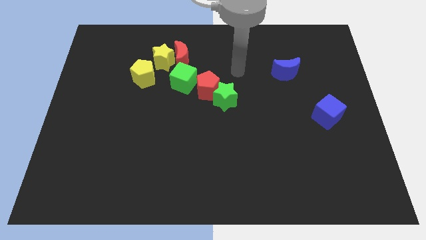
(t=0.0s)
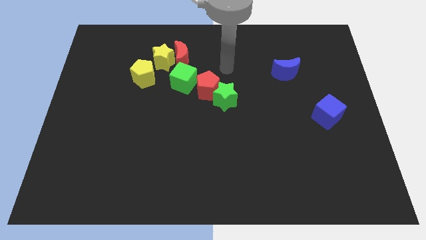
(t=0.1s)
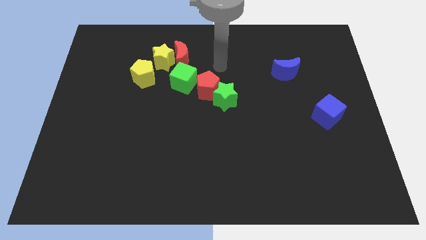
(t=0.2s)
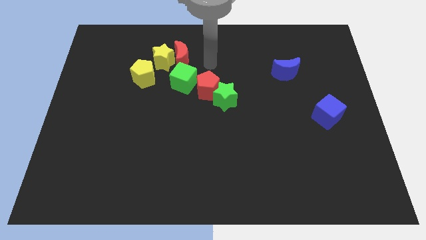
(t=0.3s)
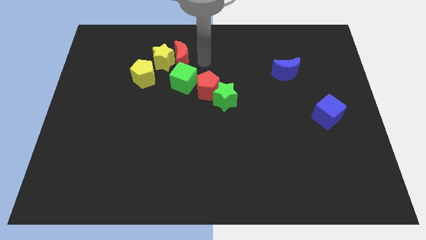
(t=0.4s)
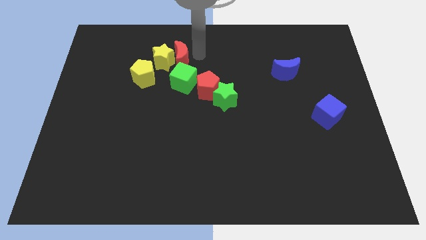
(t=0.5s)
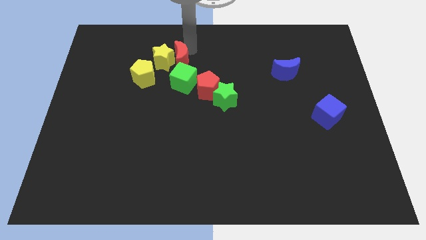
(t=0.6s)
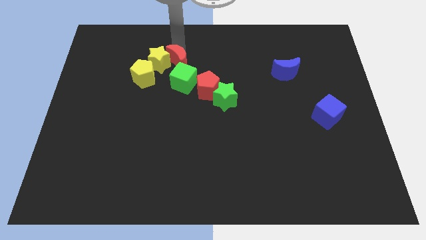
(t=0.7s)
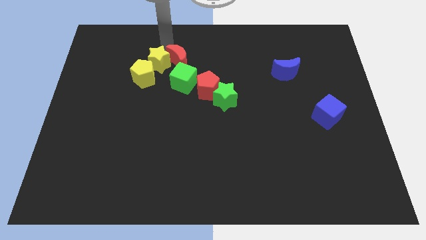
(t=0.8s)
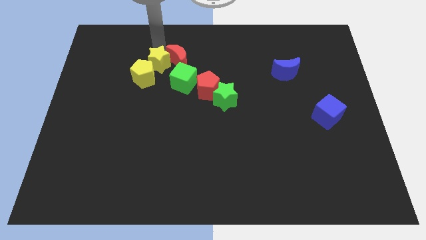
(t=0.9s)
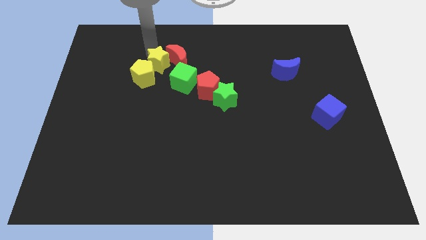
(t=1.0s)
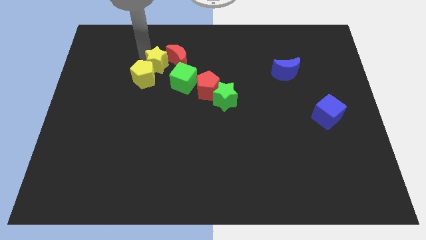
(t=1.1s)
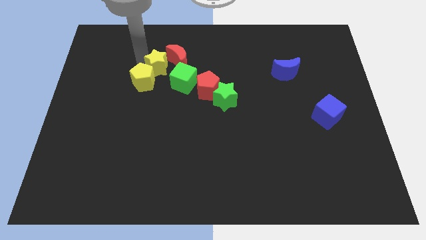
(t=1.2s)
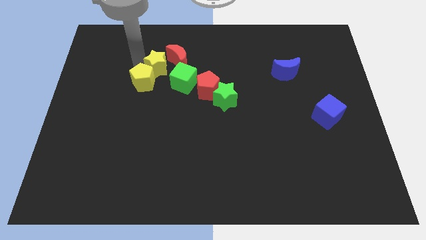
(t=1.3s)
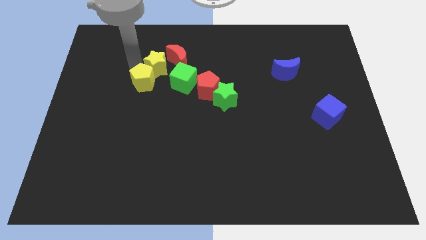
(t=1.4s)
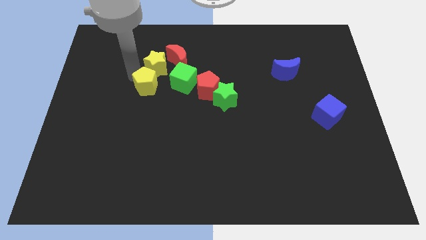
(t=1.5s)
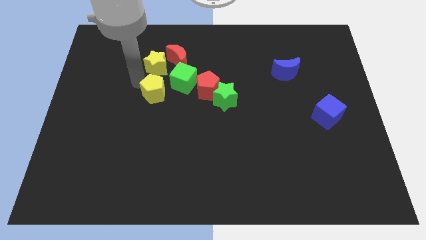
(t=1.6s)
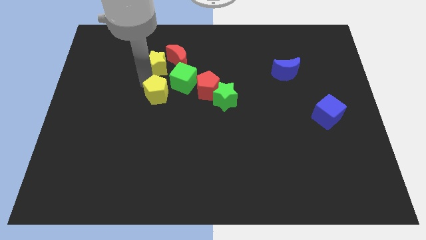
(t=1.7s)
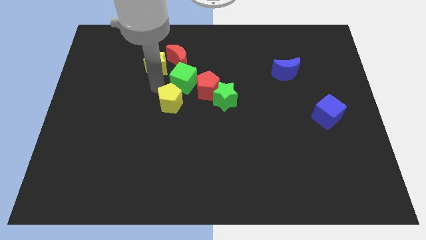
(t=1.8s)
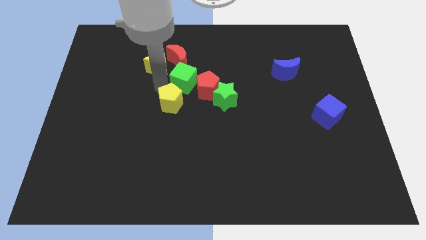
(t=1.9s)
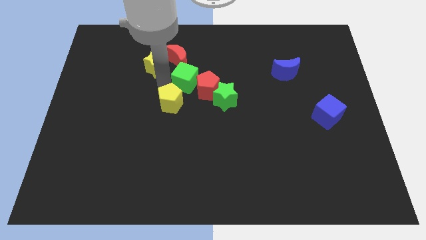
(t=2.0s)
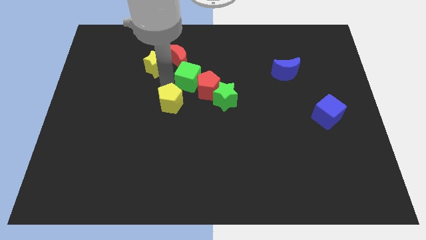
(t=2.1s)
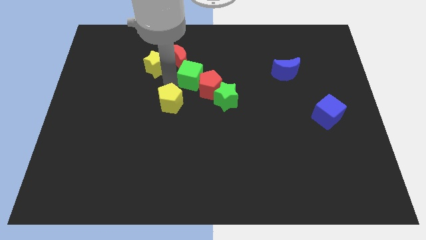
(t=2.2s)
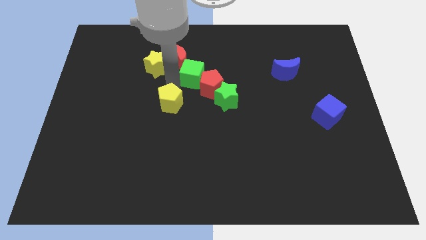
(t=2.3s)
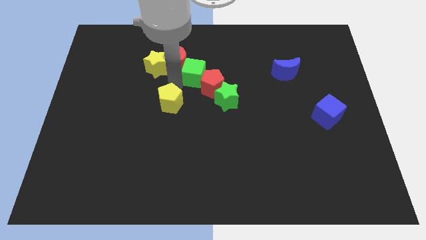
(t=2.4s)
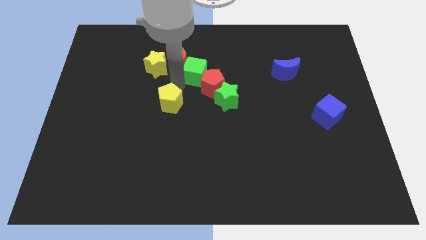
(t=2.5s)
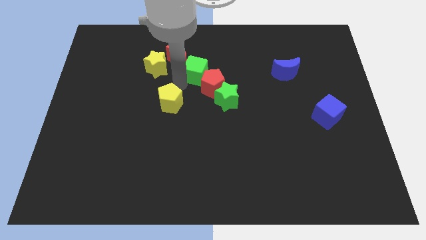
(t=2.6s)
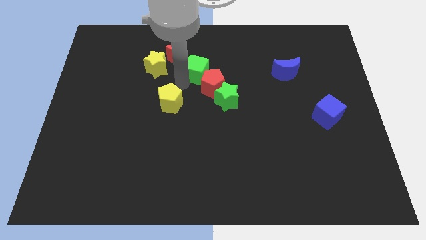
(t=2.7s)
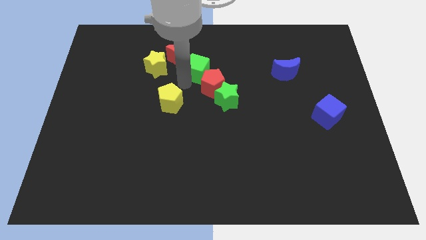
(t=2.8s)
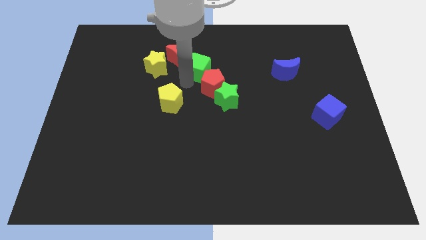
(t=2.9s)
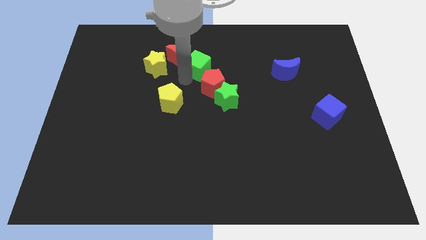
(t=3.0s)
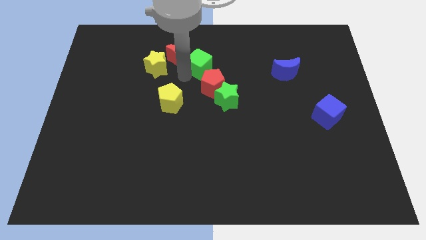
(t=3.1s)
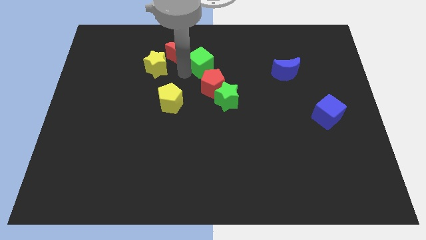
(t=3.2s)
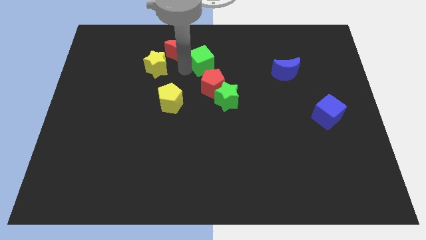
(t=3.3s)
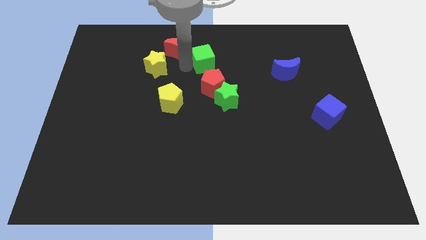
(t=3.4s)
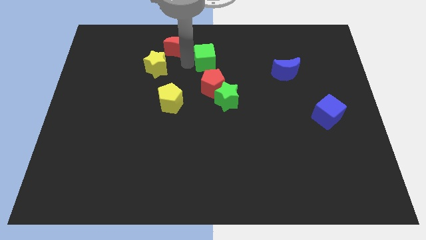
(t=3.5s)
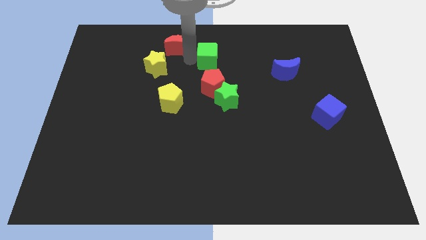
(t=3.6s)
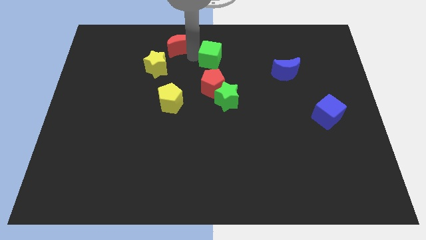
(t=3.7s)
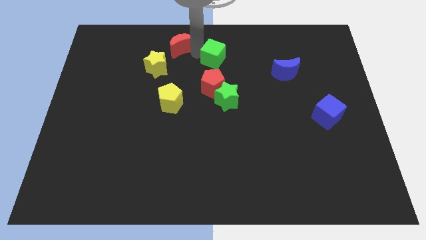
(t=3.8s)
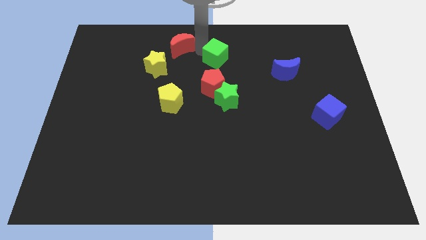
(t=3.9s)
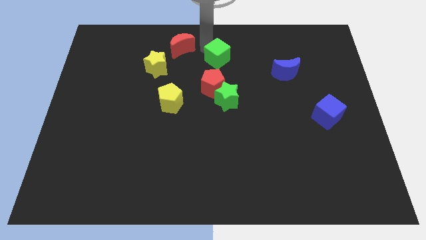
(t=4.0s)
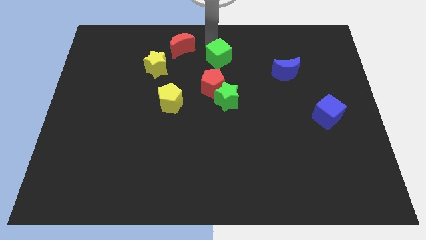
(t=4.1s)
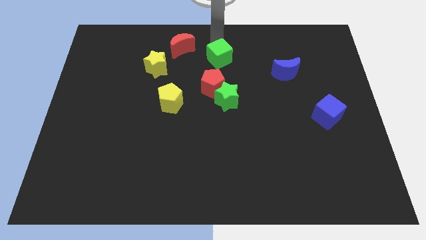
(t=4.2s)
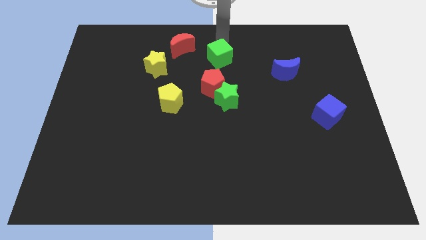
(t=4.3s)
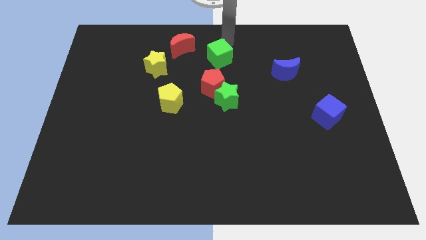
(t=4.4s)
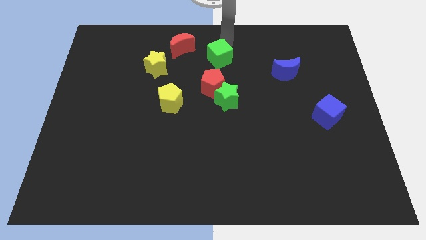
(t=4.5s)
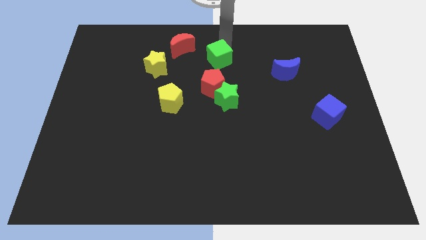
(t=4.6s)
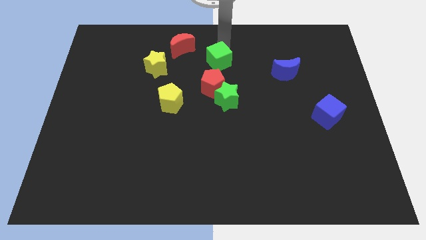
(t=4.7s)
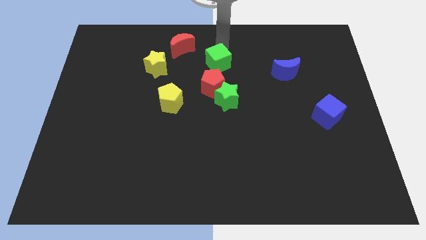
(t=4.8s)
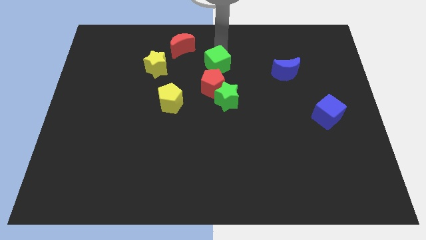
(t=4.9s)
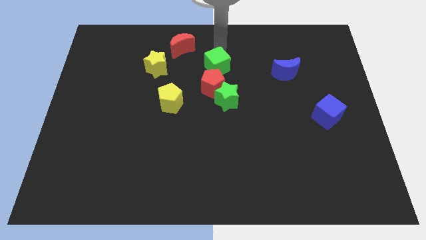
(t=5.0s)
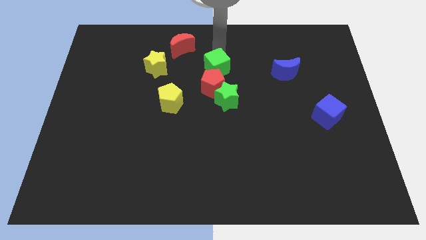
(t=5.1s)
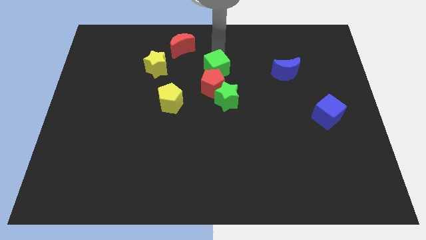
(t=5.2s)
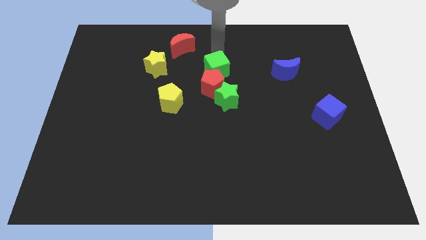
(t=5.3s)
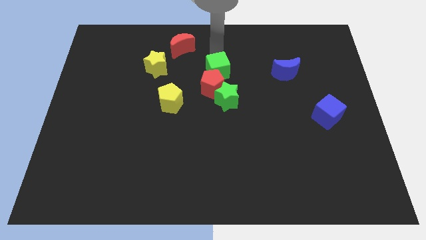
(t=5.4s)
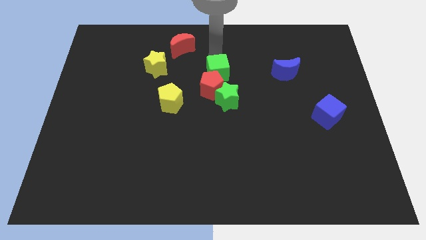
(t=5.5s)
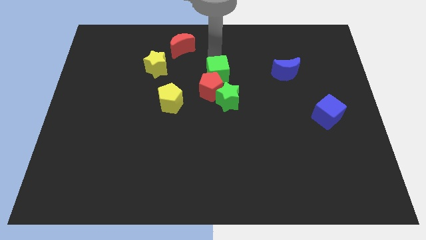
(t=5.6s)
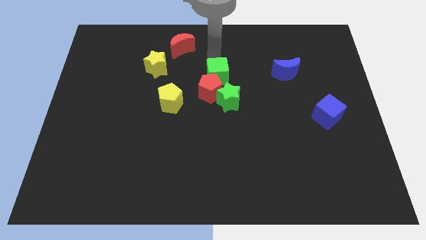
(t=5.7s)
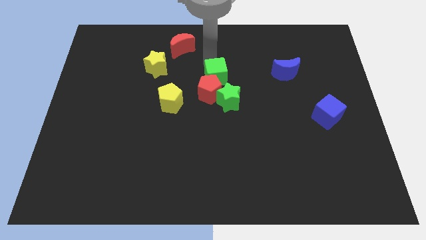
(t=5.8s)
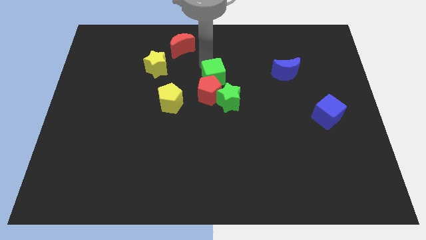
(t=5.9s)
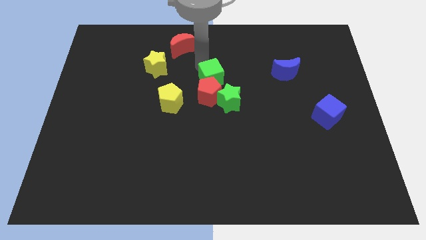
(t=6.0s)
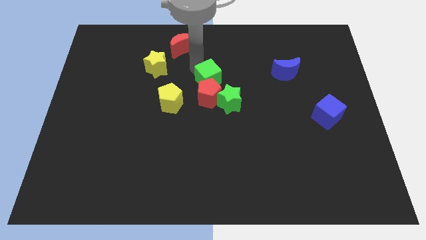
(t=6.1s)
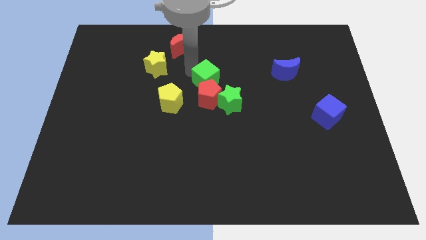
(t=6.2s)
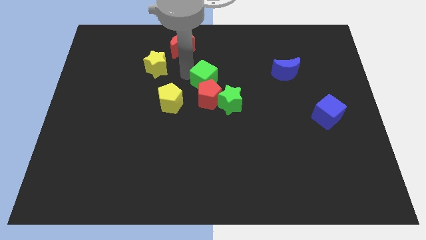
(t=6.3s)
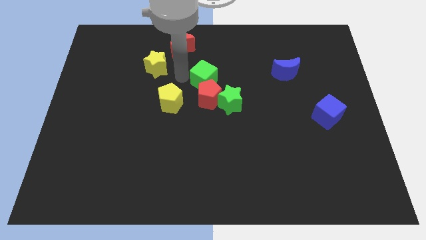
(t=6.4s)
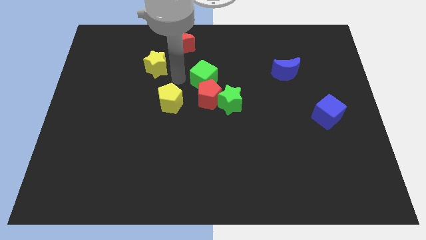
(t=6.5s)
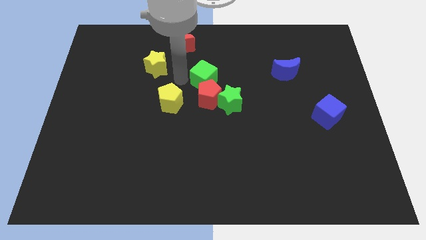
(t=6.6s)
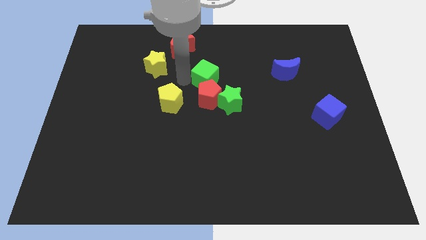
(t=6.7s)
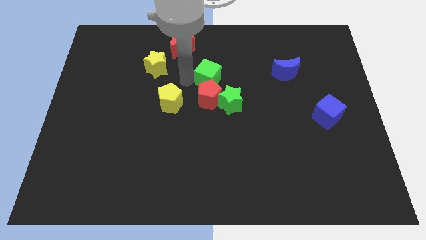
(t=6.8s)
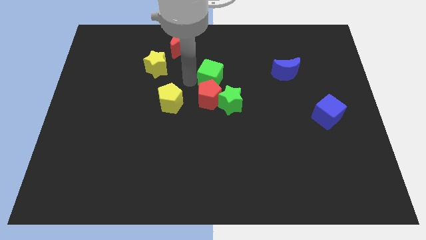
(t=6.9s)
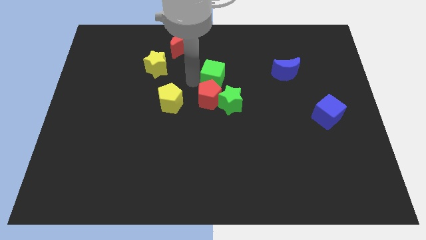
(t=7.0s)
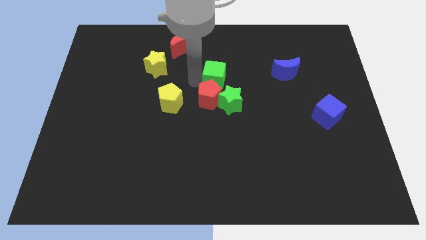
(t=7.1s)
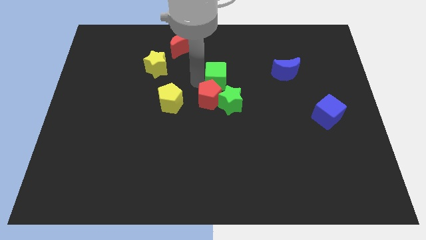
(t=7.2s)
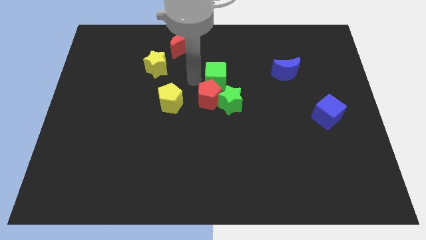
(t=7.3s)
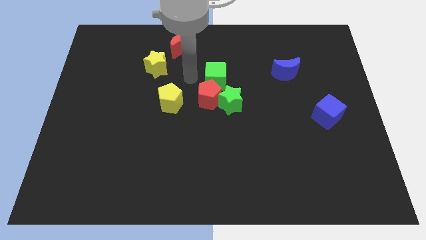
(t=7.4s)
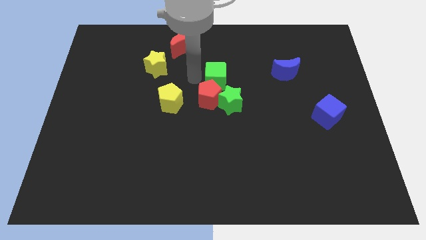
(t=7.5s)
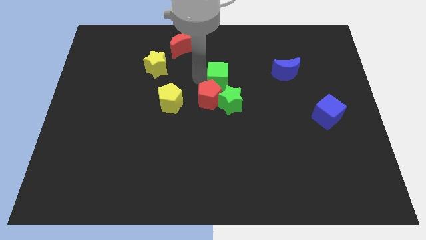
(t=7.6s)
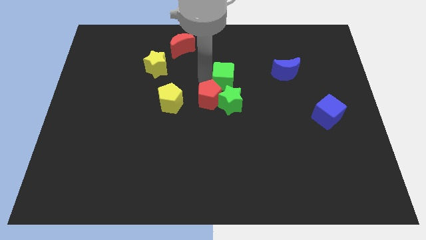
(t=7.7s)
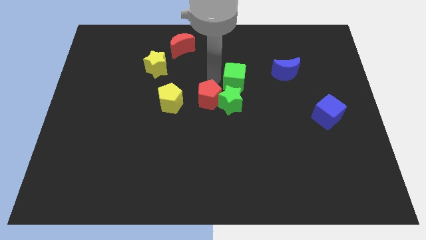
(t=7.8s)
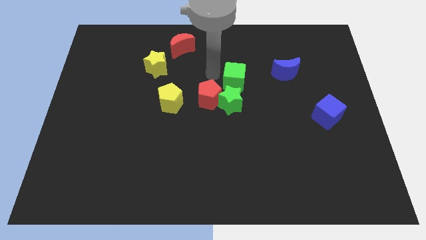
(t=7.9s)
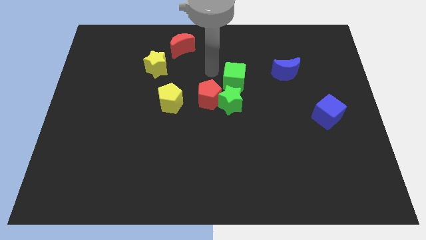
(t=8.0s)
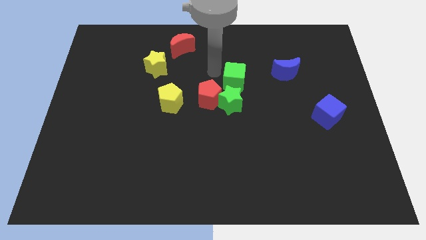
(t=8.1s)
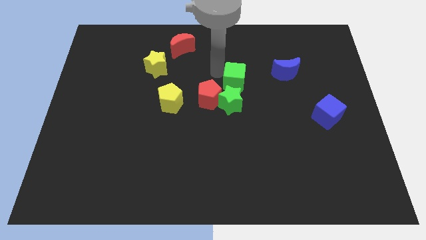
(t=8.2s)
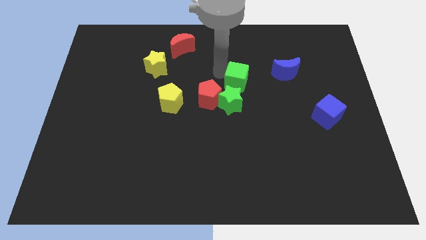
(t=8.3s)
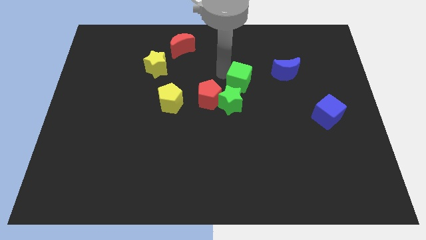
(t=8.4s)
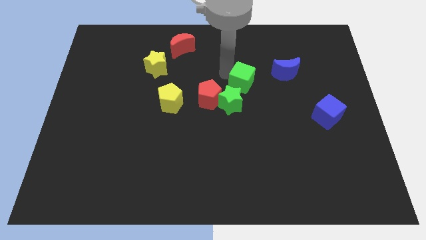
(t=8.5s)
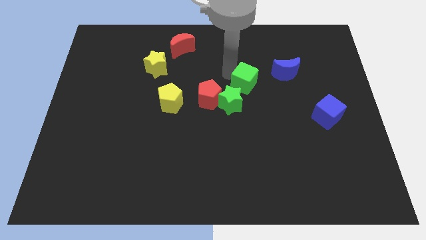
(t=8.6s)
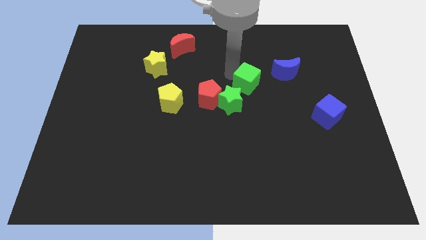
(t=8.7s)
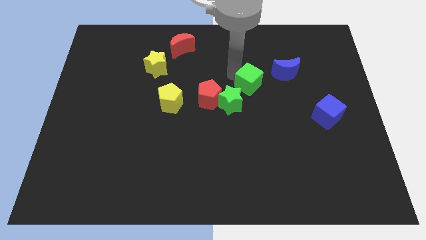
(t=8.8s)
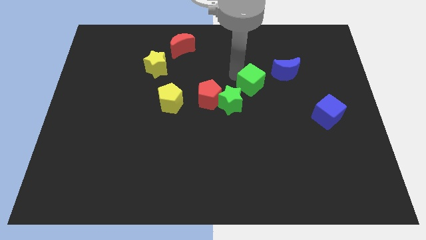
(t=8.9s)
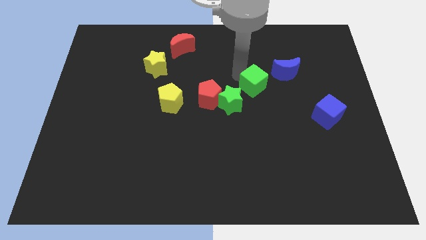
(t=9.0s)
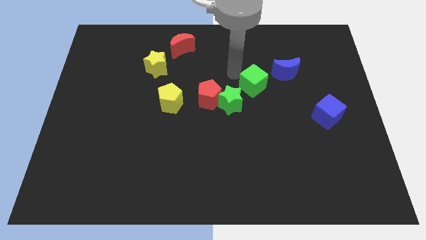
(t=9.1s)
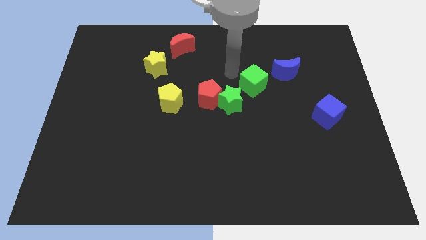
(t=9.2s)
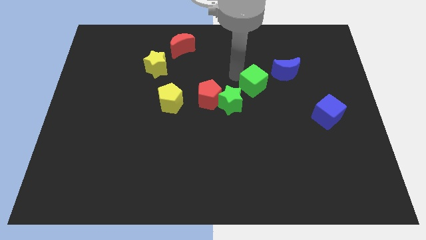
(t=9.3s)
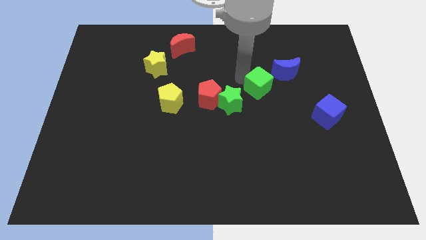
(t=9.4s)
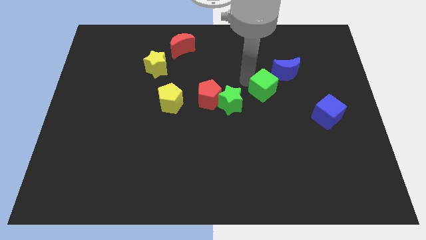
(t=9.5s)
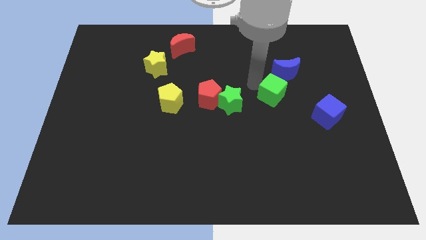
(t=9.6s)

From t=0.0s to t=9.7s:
slide the green cube to the bottom side of the blue moon
